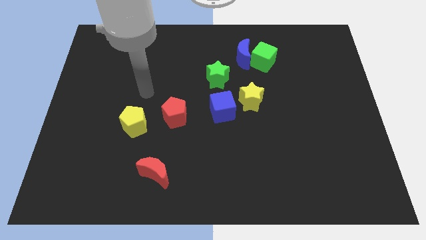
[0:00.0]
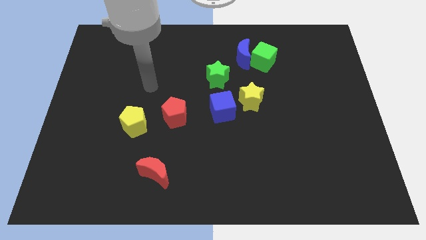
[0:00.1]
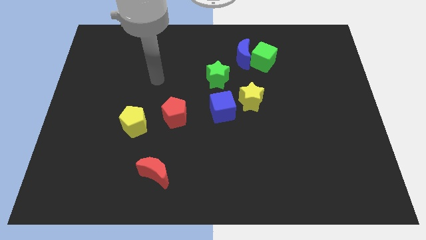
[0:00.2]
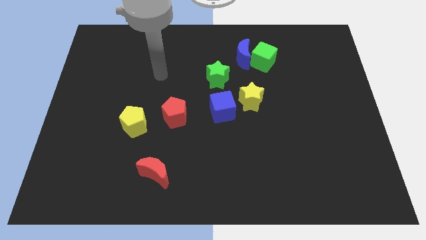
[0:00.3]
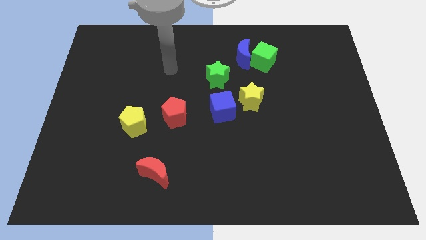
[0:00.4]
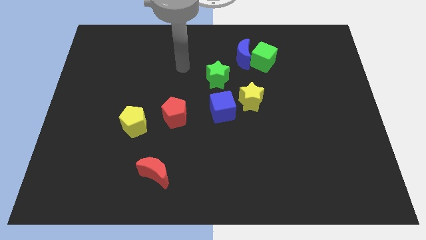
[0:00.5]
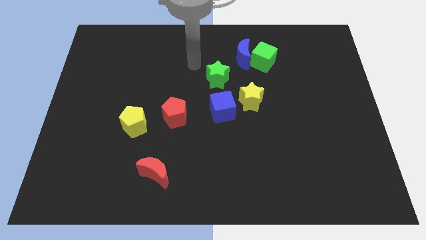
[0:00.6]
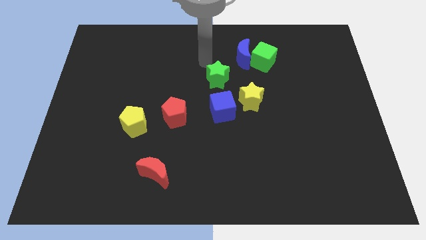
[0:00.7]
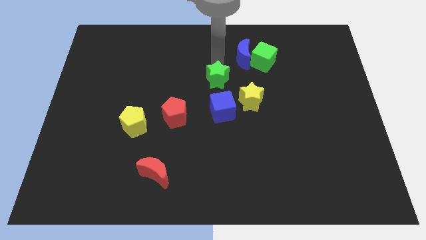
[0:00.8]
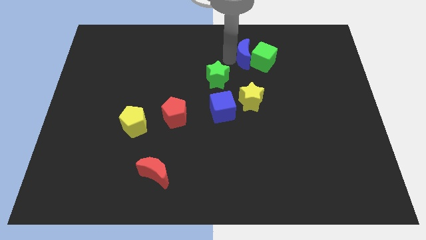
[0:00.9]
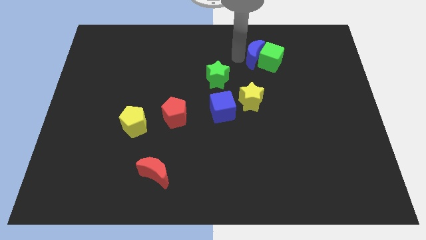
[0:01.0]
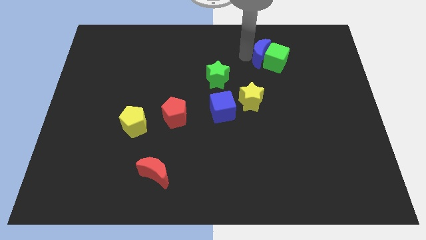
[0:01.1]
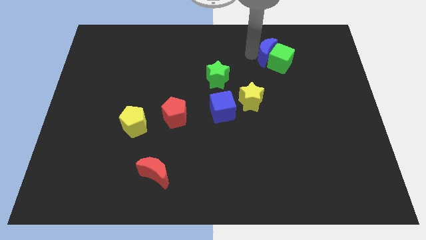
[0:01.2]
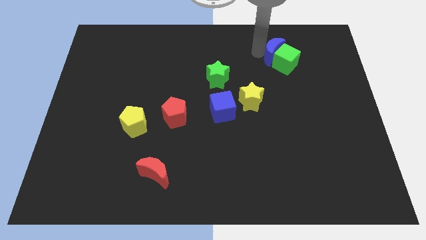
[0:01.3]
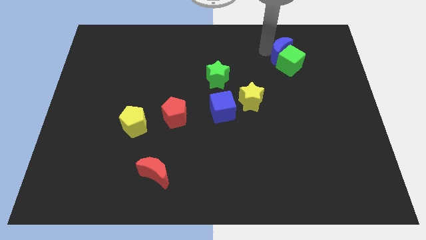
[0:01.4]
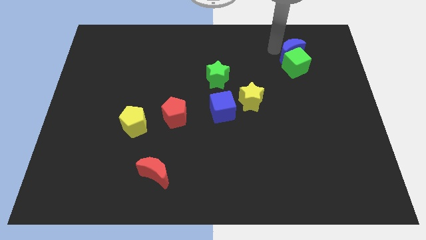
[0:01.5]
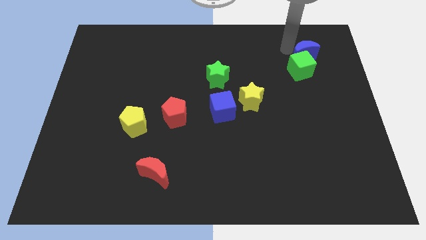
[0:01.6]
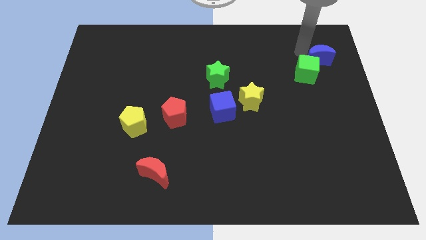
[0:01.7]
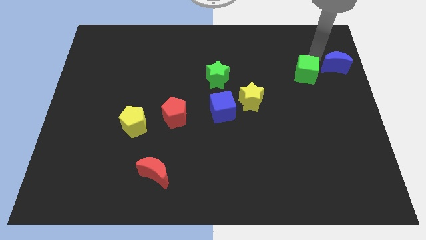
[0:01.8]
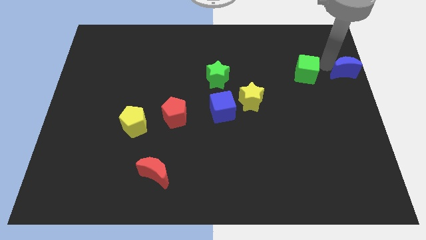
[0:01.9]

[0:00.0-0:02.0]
move the green cube away from the blue moon

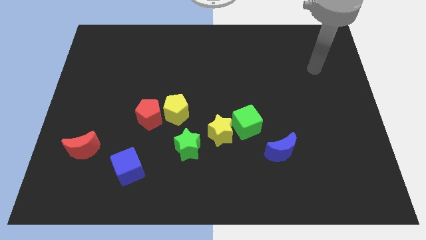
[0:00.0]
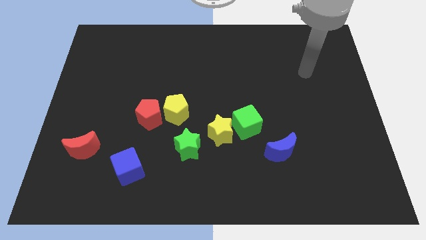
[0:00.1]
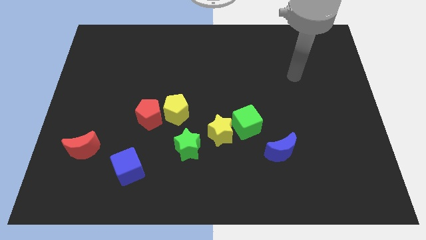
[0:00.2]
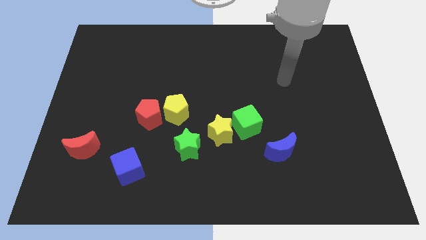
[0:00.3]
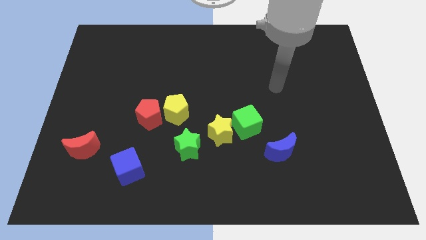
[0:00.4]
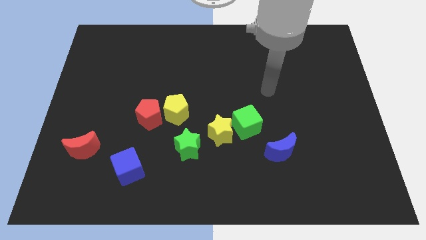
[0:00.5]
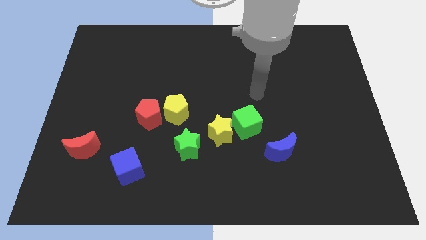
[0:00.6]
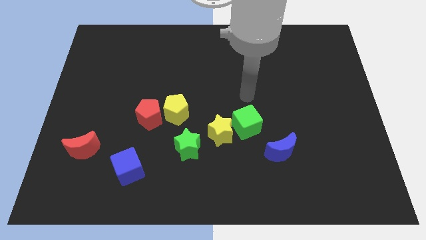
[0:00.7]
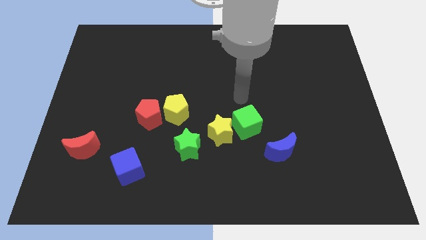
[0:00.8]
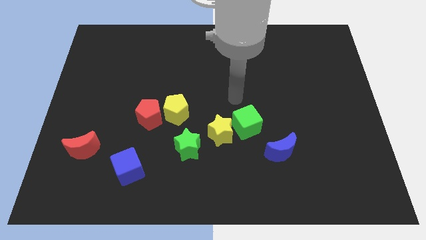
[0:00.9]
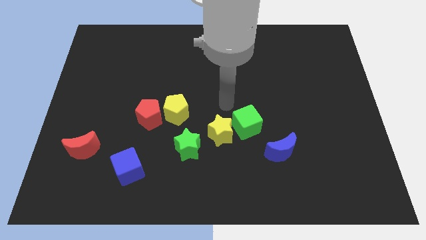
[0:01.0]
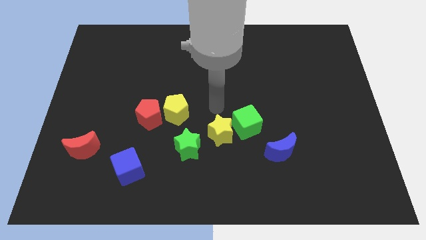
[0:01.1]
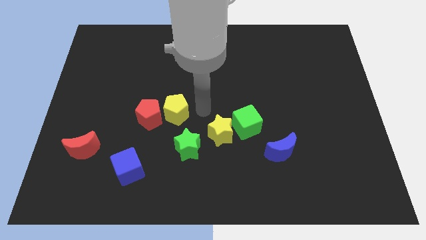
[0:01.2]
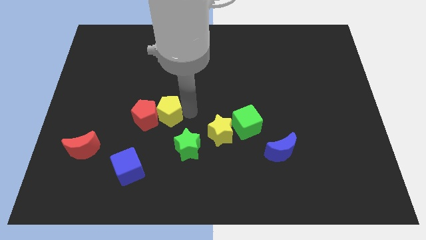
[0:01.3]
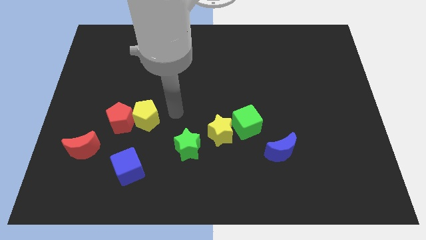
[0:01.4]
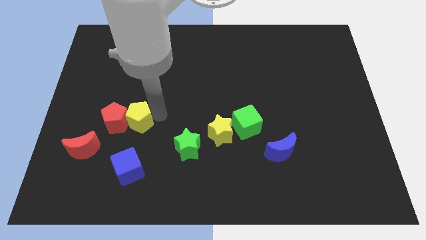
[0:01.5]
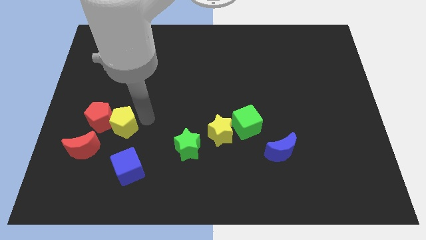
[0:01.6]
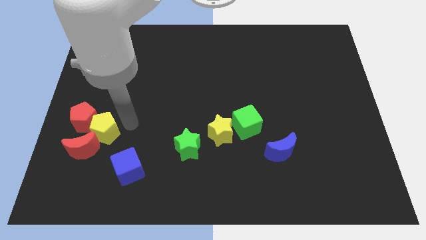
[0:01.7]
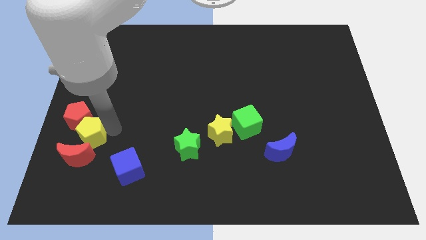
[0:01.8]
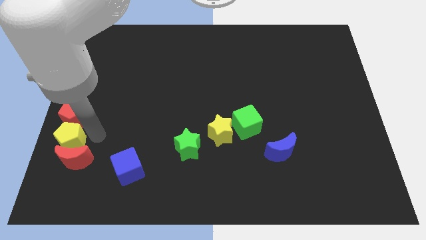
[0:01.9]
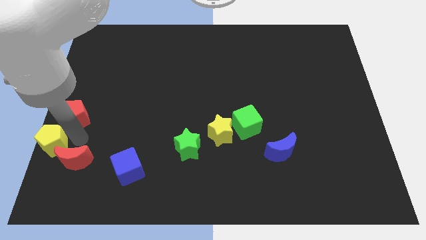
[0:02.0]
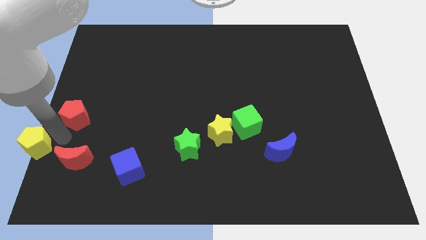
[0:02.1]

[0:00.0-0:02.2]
pull the red pentagon apart from the yellow pentagon

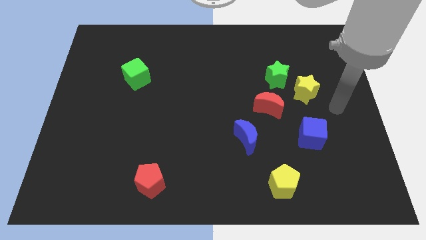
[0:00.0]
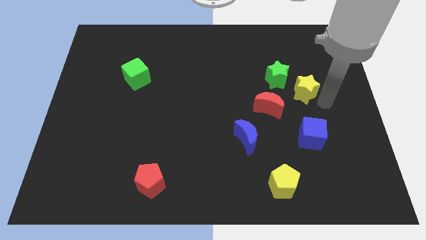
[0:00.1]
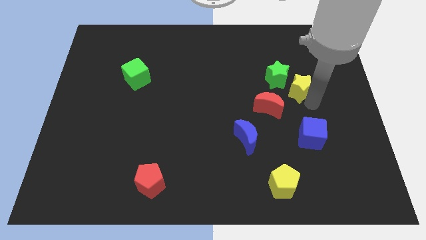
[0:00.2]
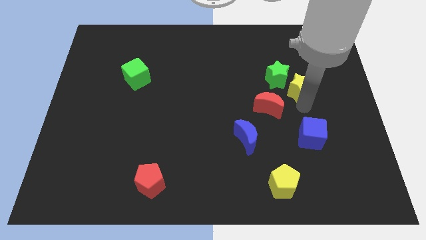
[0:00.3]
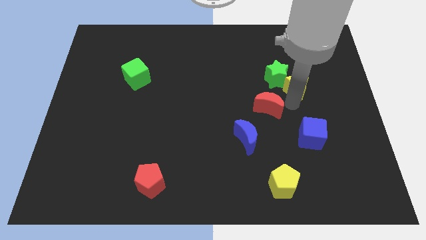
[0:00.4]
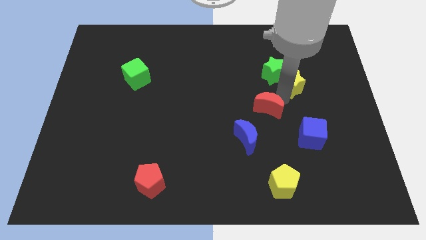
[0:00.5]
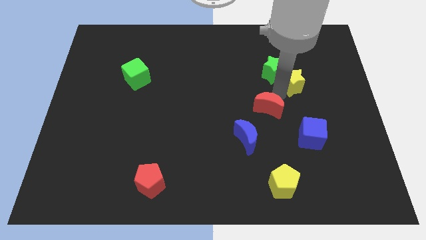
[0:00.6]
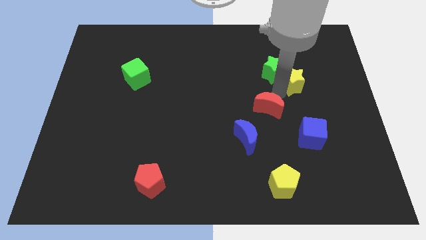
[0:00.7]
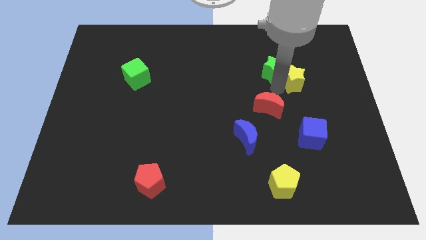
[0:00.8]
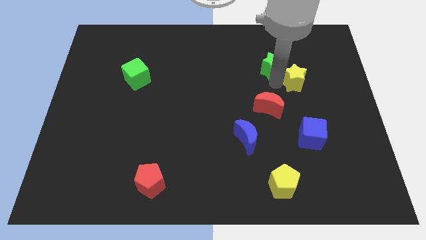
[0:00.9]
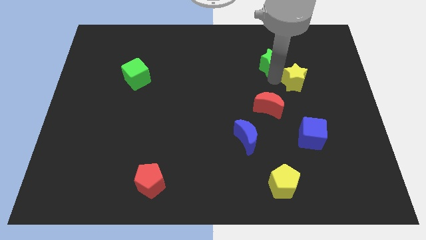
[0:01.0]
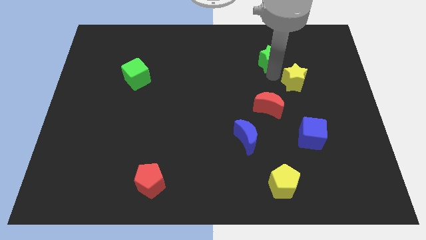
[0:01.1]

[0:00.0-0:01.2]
separate the green star from the yellow star and red moon

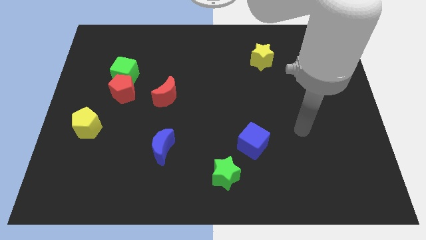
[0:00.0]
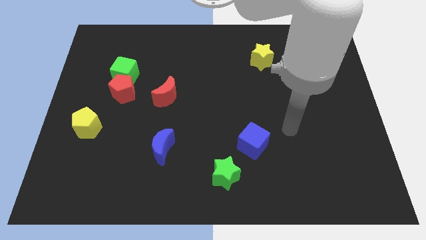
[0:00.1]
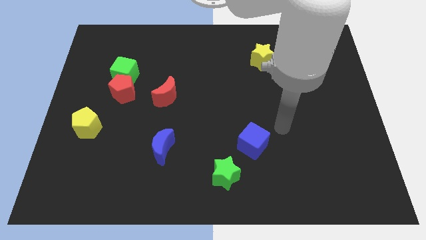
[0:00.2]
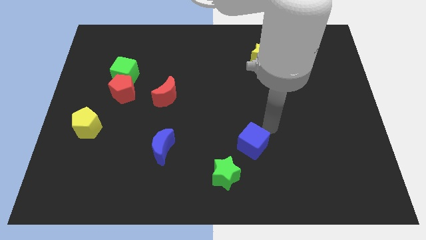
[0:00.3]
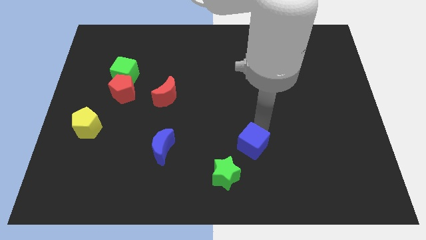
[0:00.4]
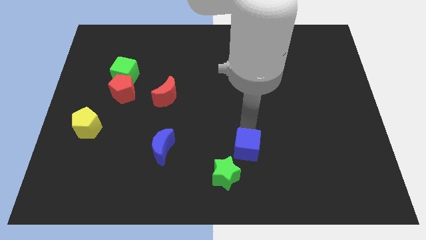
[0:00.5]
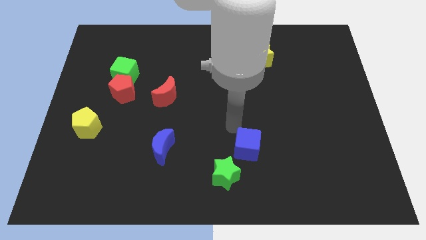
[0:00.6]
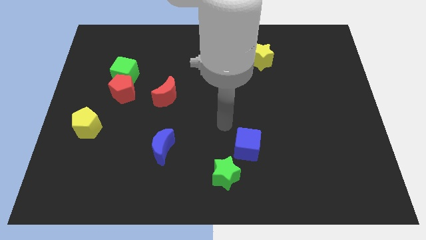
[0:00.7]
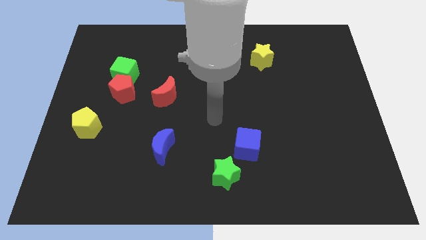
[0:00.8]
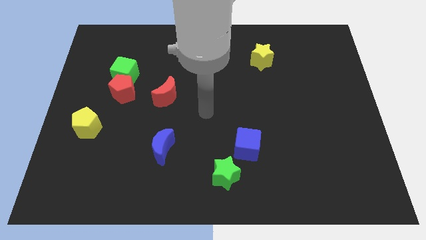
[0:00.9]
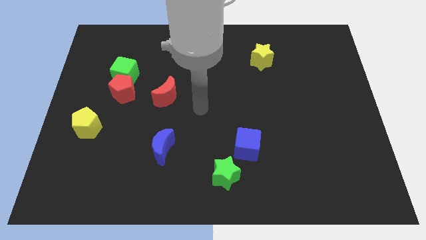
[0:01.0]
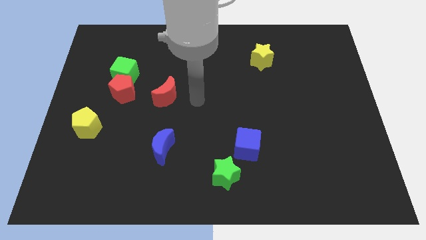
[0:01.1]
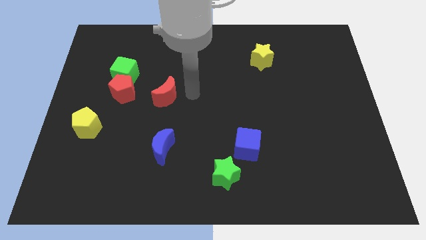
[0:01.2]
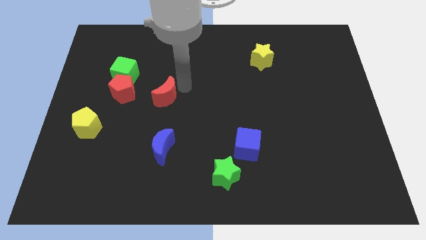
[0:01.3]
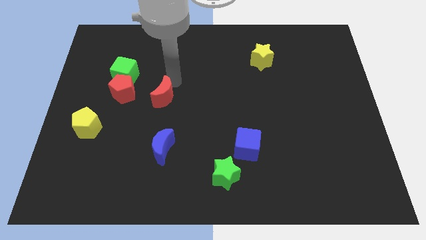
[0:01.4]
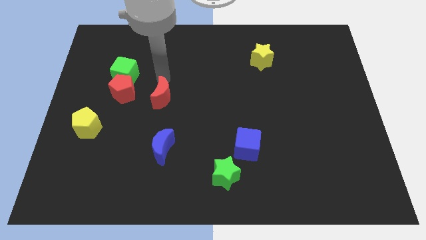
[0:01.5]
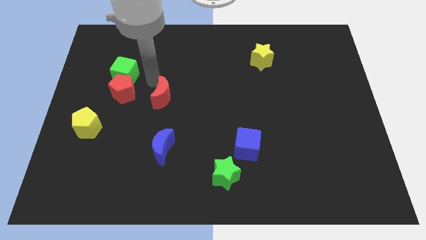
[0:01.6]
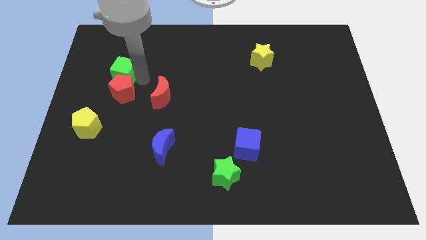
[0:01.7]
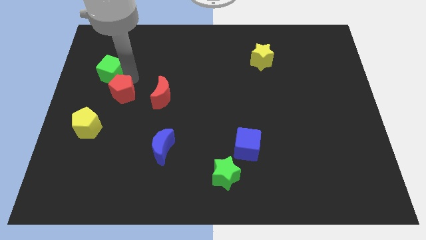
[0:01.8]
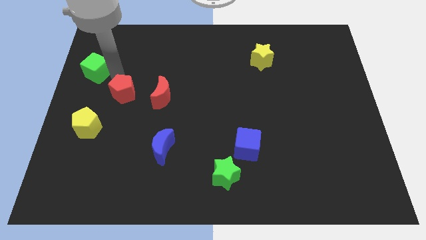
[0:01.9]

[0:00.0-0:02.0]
separate the red pentagon from the green cube

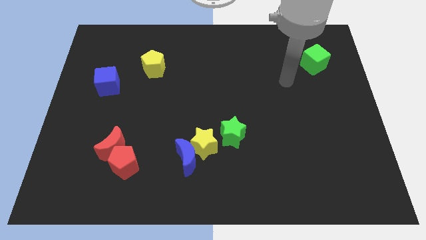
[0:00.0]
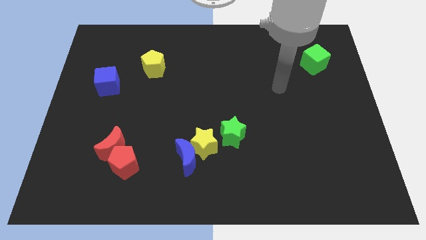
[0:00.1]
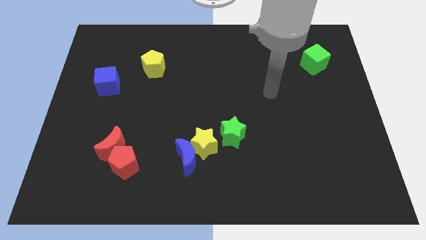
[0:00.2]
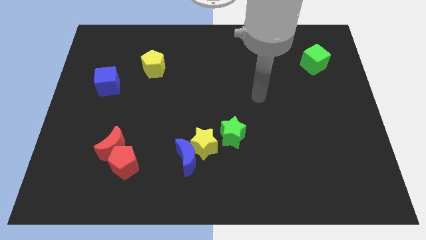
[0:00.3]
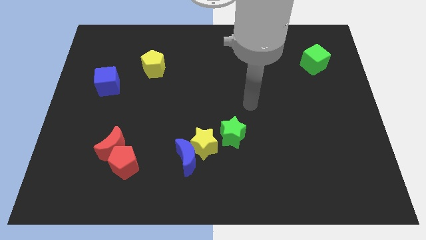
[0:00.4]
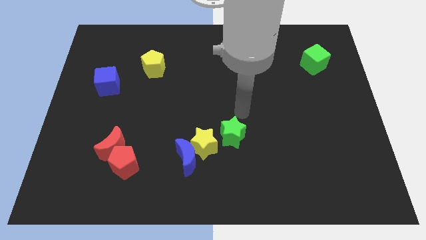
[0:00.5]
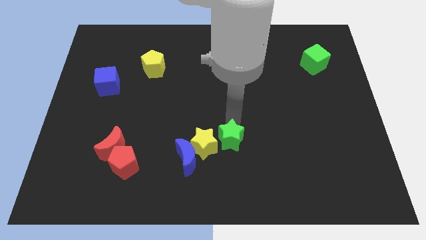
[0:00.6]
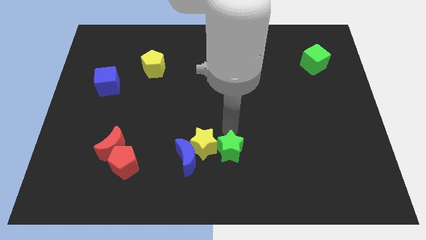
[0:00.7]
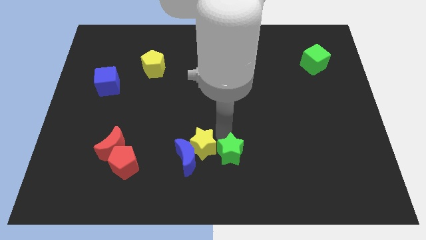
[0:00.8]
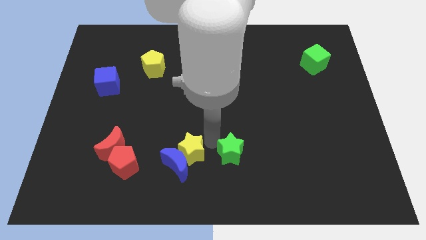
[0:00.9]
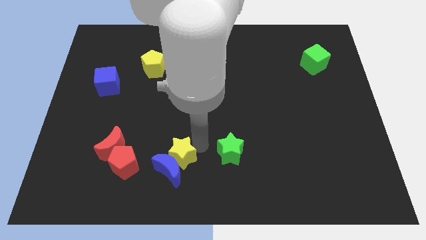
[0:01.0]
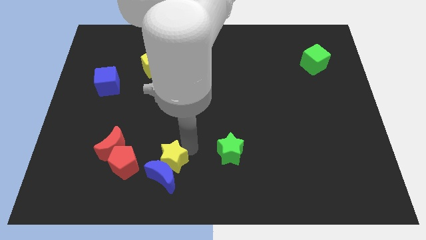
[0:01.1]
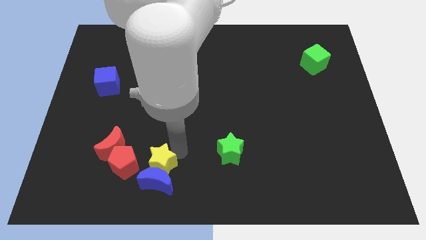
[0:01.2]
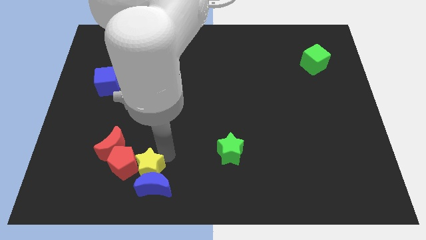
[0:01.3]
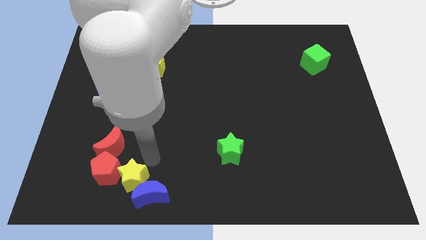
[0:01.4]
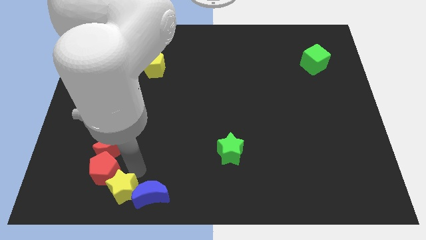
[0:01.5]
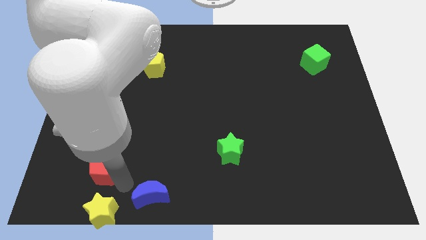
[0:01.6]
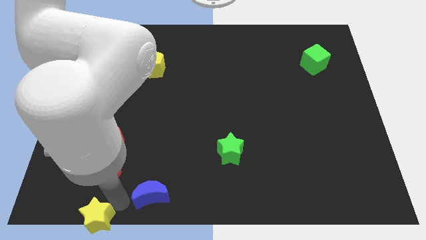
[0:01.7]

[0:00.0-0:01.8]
pull the blue moon apart from the yellow star

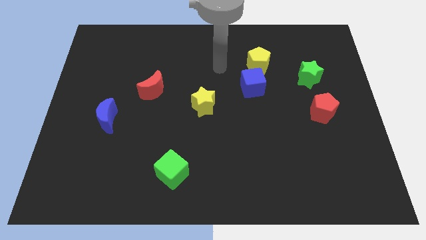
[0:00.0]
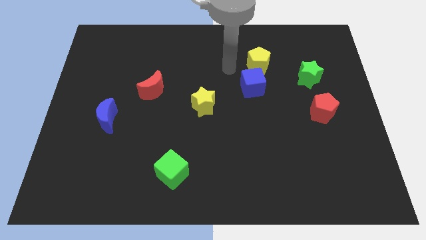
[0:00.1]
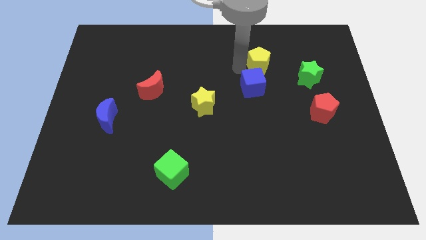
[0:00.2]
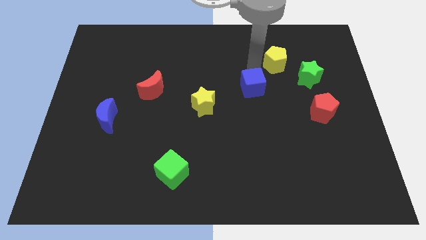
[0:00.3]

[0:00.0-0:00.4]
pull the blue cube apart from the yellow pentagon
